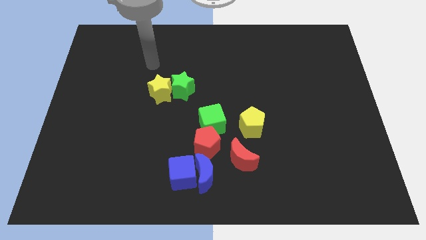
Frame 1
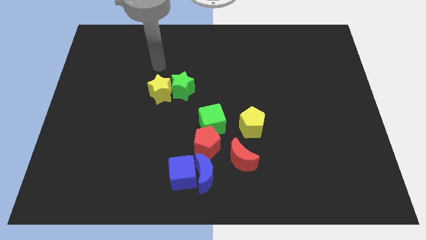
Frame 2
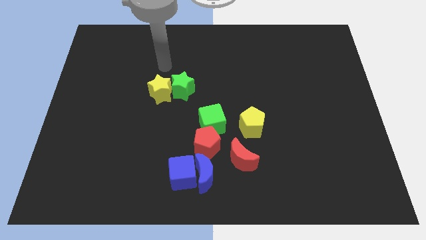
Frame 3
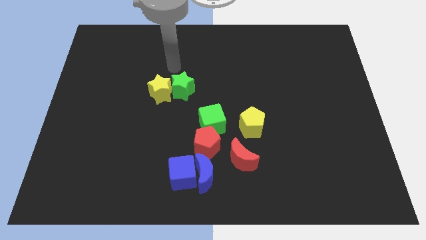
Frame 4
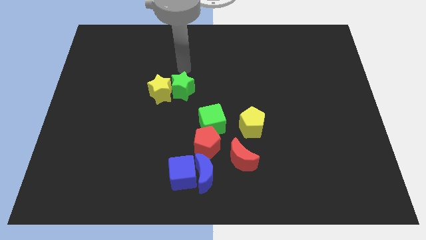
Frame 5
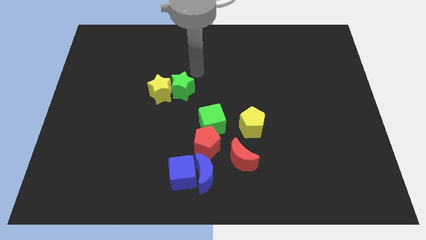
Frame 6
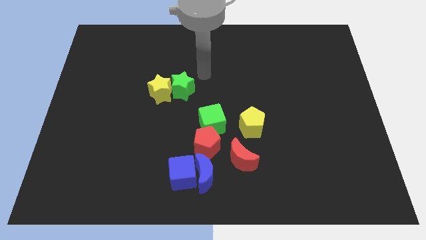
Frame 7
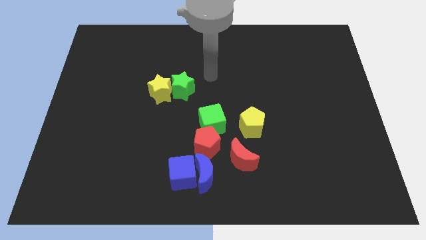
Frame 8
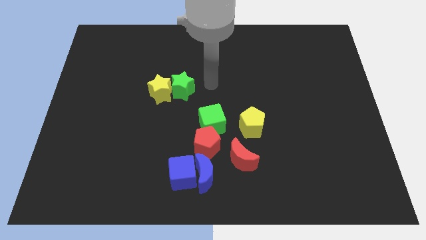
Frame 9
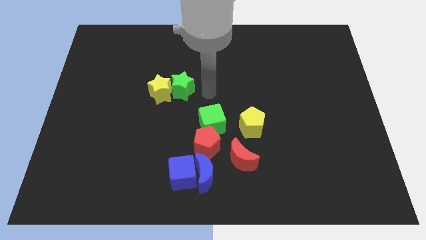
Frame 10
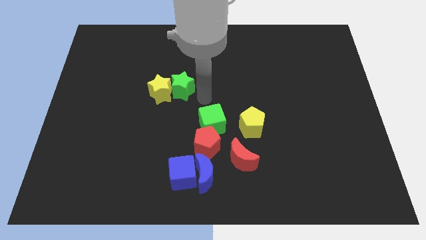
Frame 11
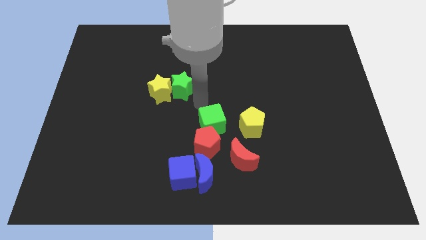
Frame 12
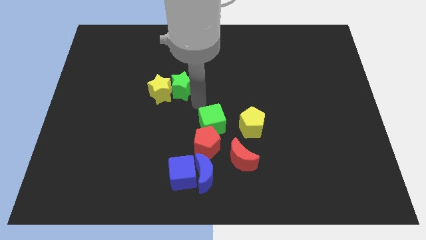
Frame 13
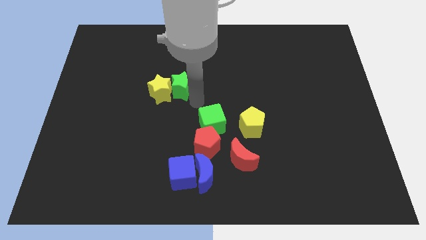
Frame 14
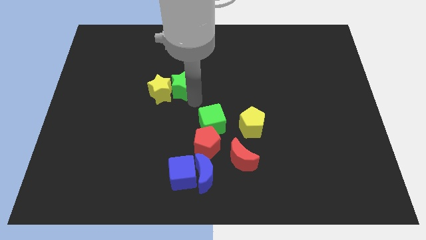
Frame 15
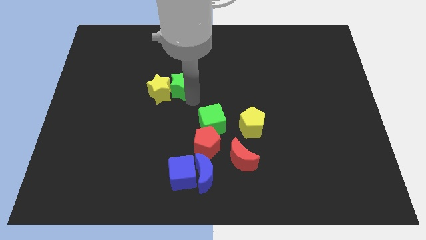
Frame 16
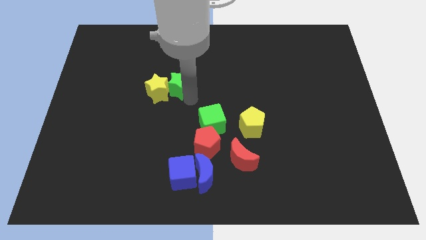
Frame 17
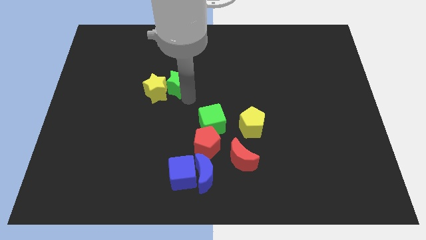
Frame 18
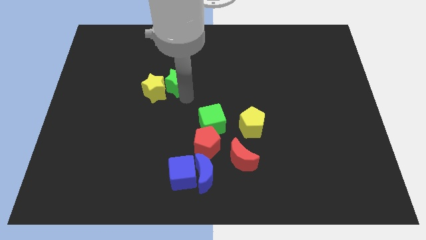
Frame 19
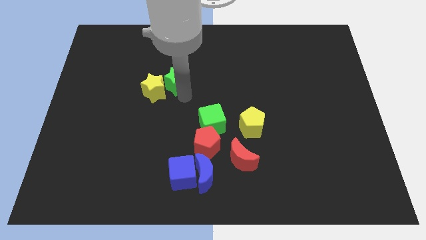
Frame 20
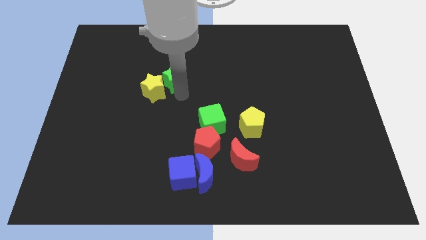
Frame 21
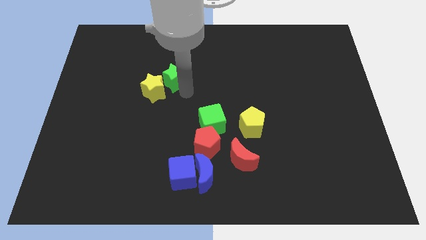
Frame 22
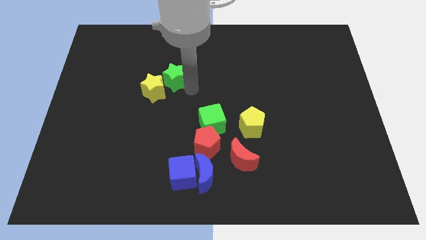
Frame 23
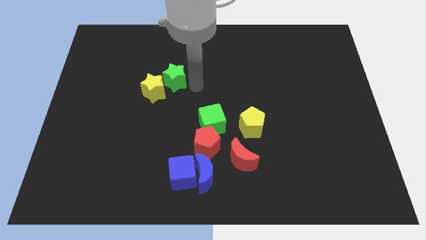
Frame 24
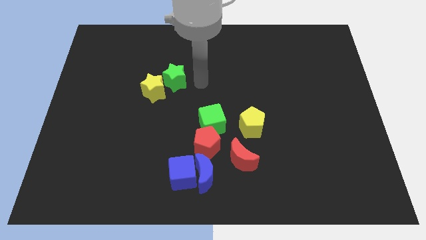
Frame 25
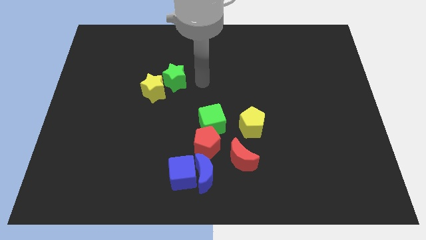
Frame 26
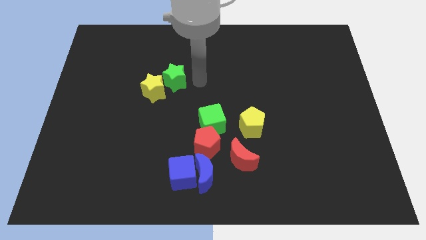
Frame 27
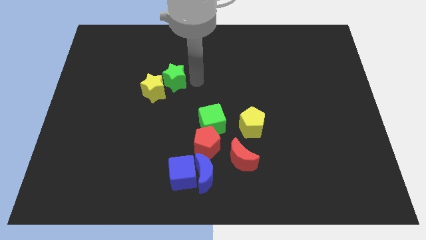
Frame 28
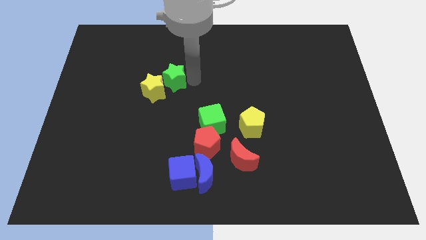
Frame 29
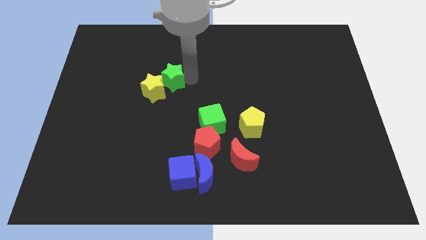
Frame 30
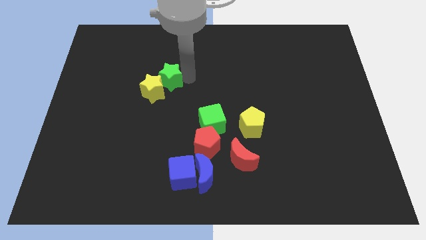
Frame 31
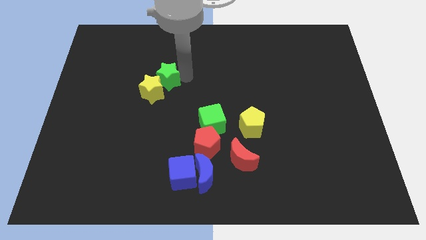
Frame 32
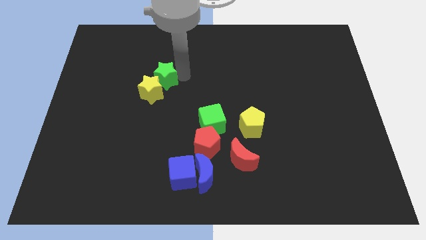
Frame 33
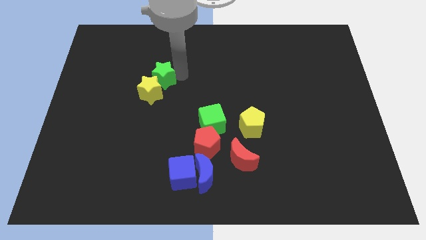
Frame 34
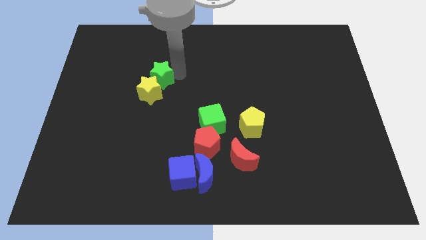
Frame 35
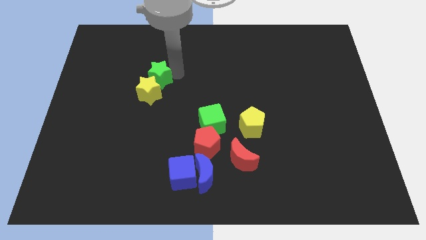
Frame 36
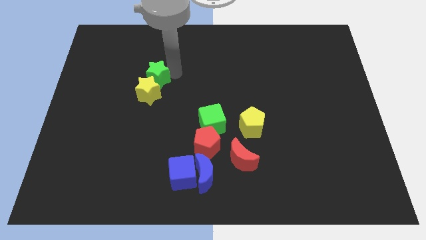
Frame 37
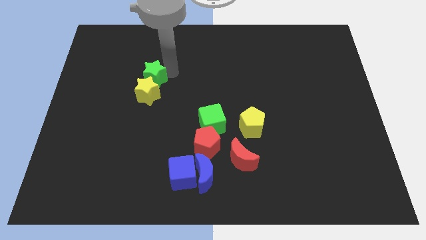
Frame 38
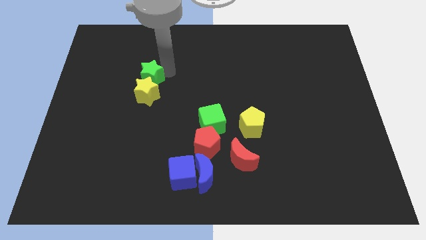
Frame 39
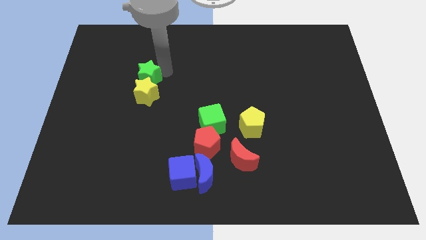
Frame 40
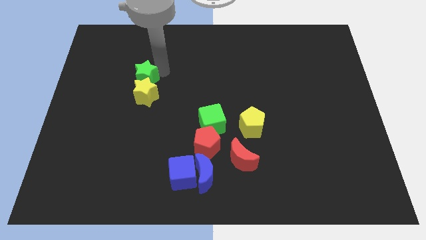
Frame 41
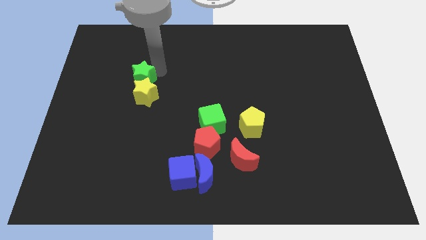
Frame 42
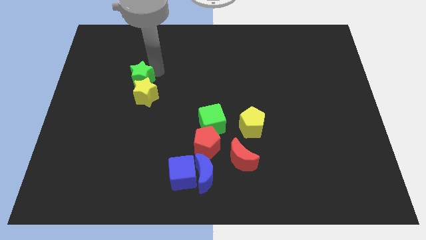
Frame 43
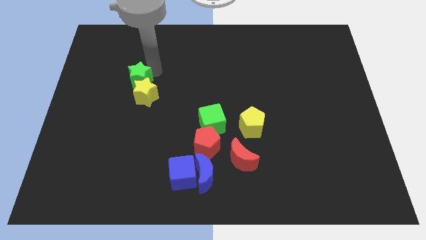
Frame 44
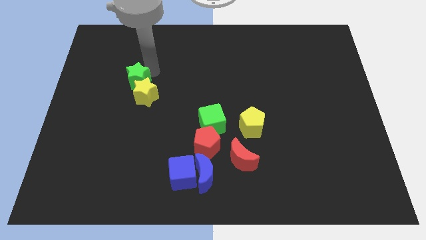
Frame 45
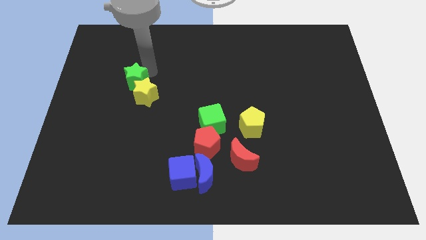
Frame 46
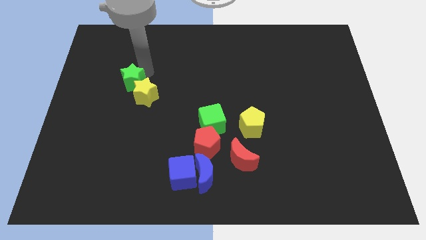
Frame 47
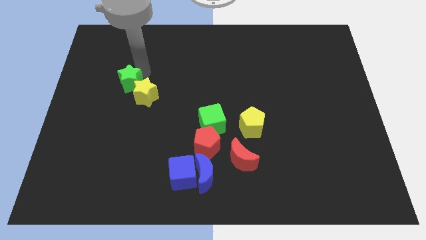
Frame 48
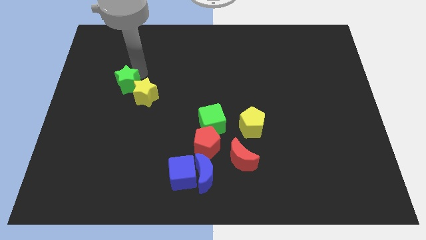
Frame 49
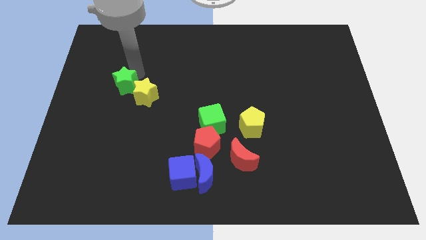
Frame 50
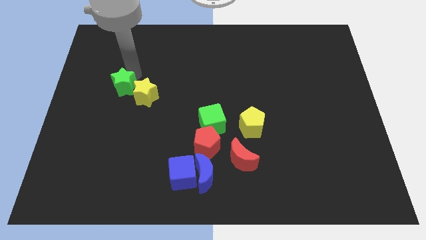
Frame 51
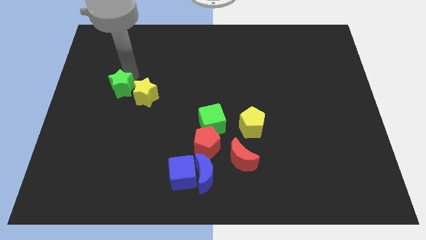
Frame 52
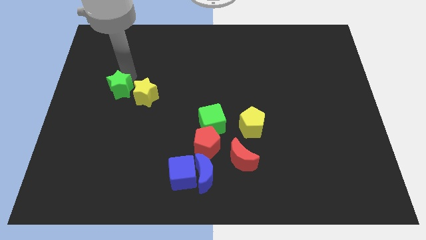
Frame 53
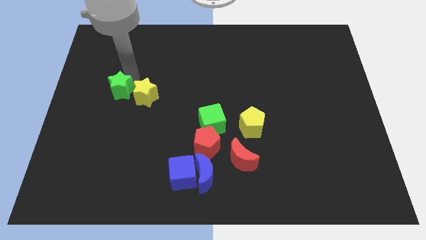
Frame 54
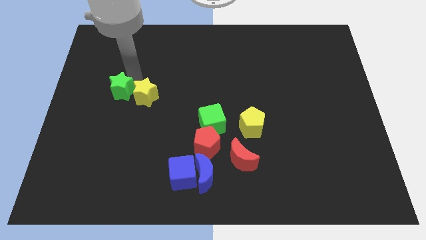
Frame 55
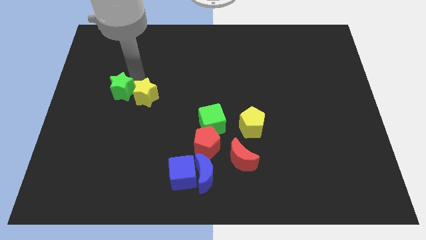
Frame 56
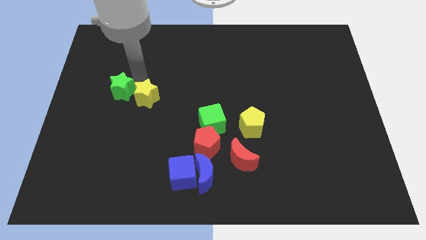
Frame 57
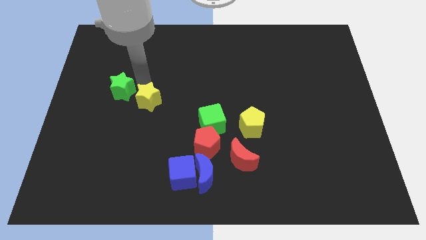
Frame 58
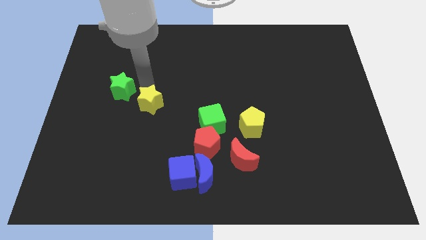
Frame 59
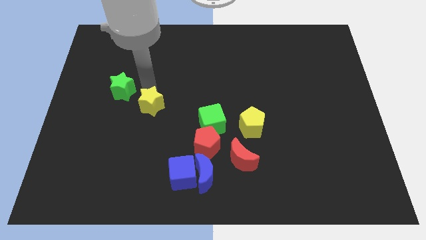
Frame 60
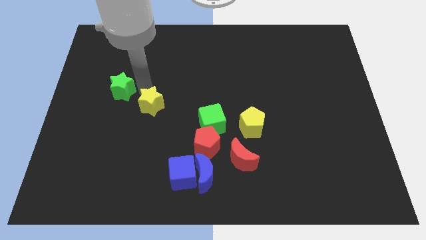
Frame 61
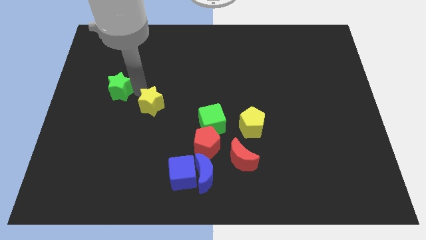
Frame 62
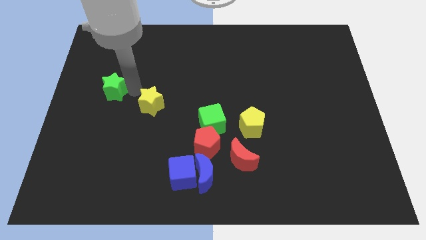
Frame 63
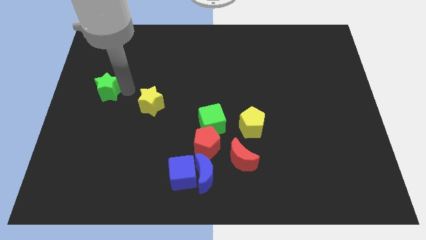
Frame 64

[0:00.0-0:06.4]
push the green star to the center left

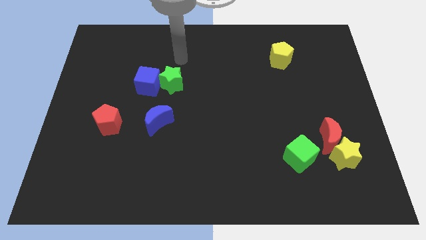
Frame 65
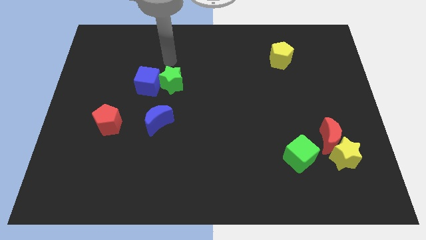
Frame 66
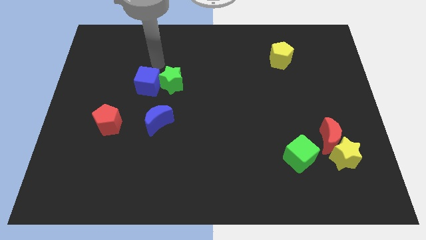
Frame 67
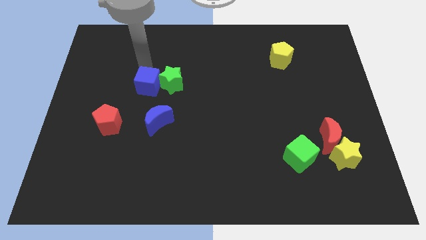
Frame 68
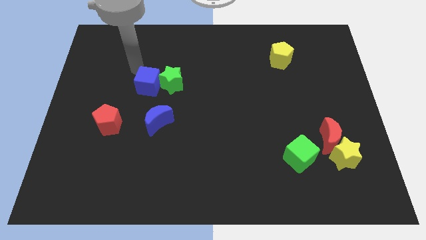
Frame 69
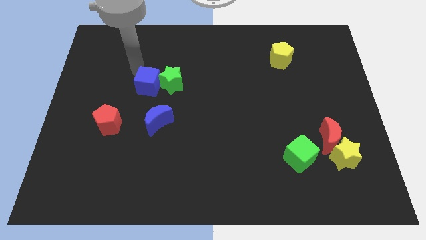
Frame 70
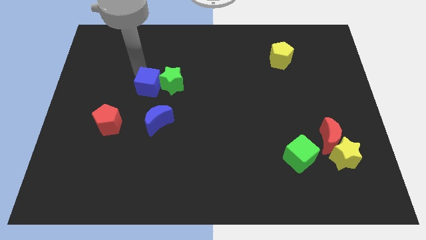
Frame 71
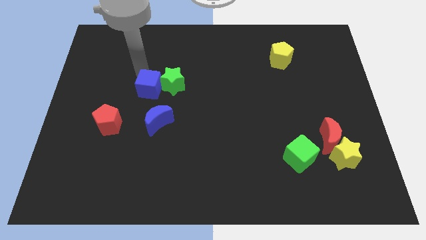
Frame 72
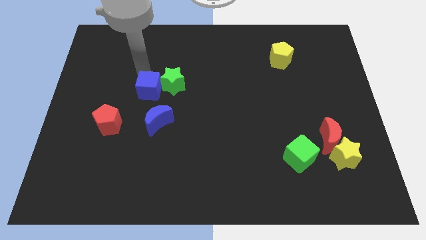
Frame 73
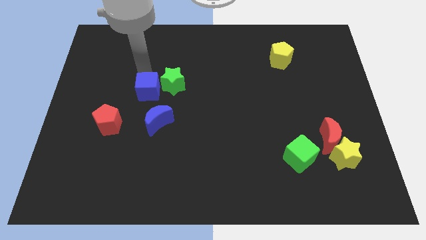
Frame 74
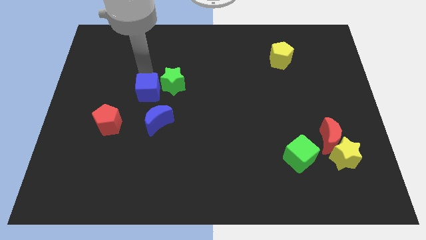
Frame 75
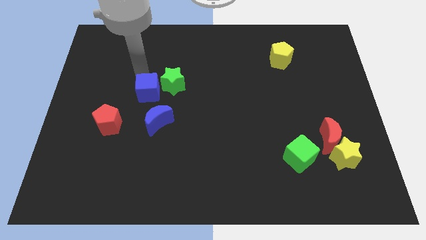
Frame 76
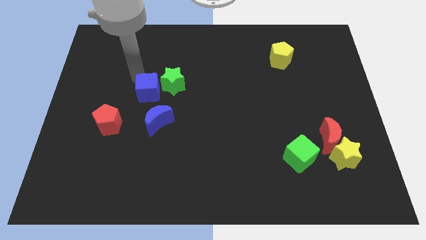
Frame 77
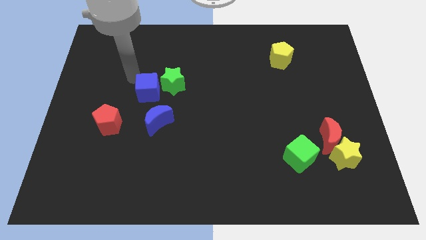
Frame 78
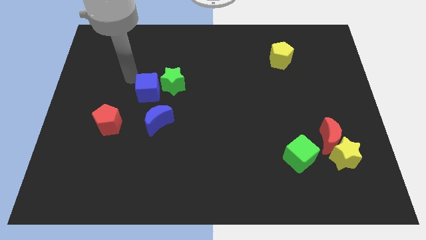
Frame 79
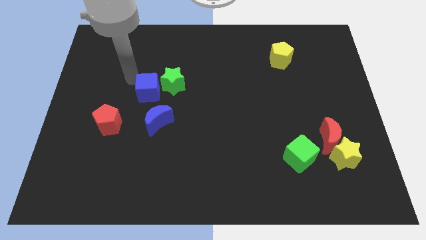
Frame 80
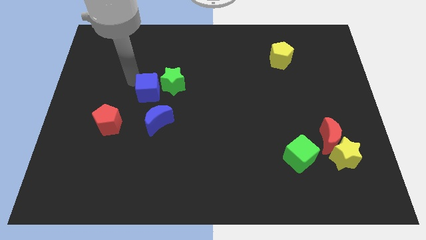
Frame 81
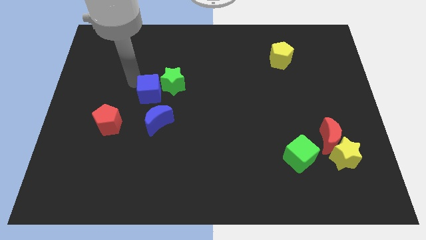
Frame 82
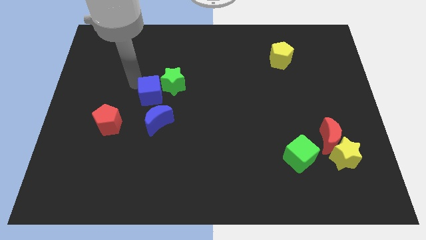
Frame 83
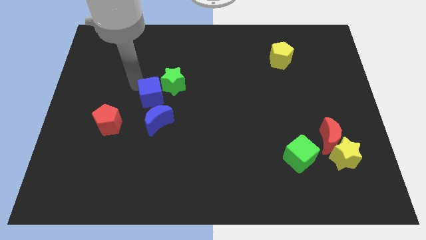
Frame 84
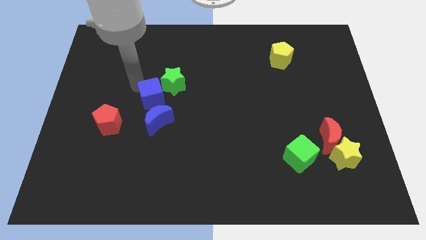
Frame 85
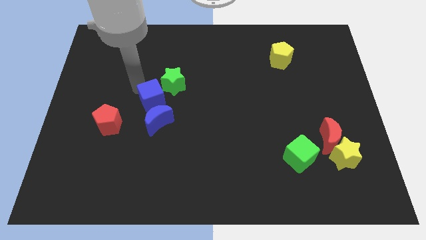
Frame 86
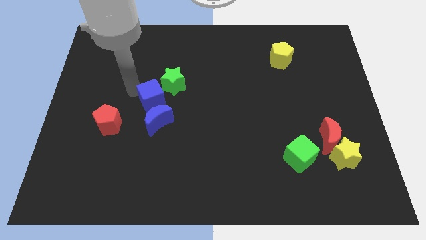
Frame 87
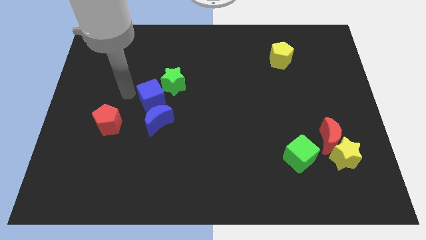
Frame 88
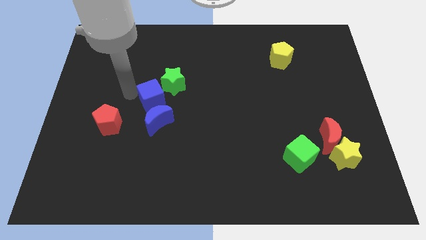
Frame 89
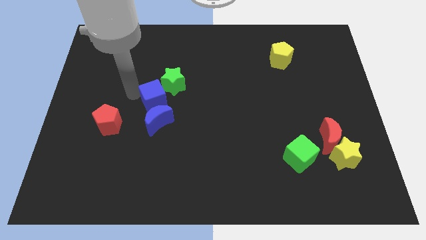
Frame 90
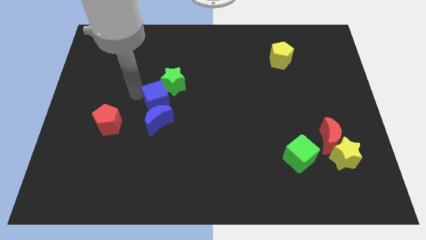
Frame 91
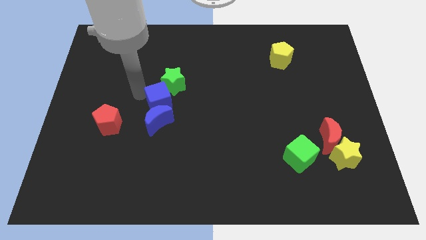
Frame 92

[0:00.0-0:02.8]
push the blue cube to the middle of the board
